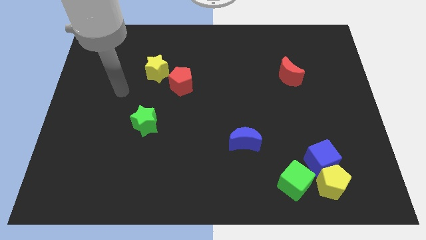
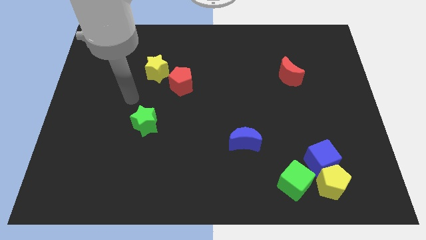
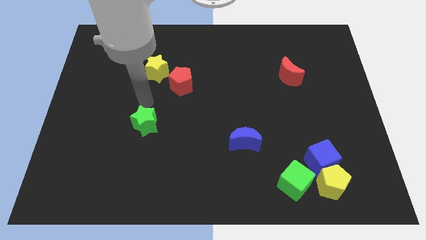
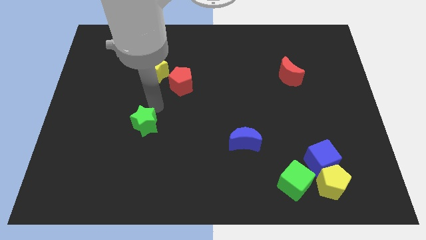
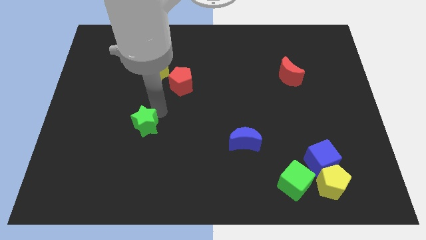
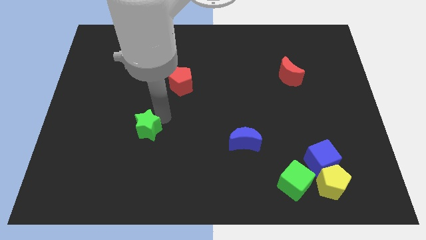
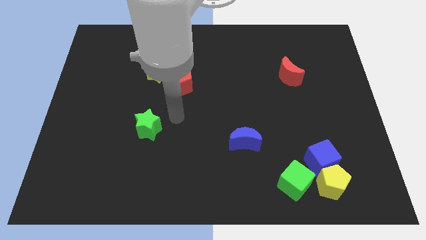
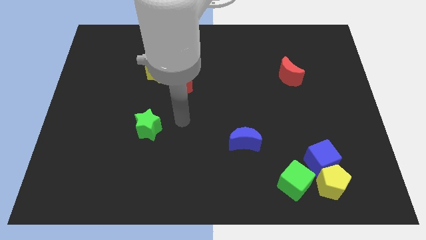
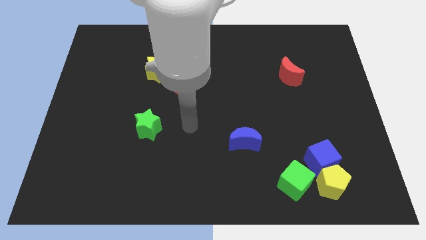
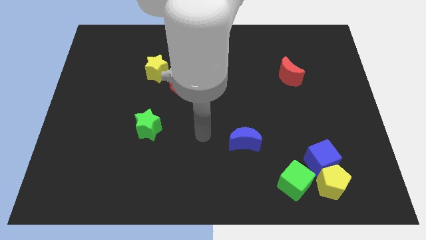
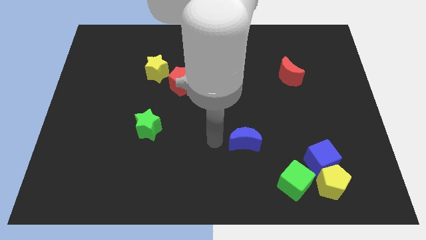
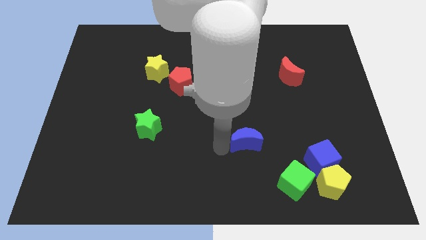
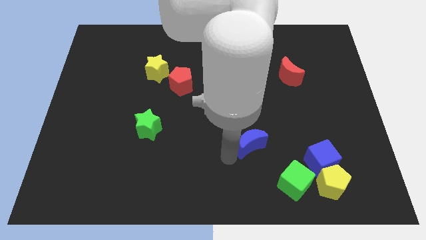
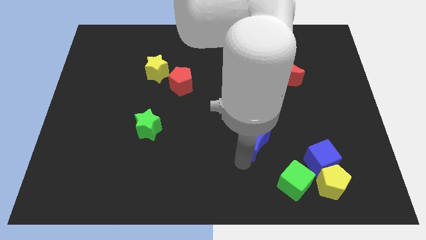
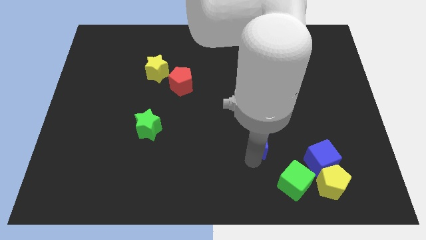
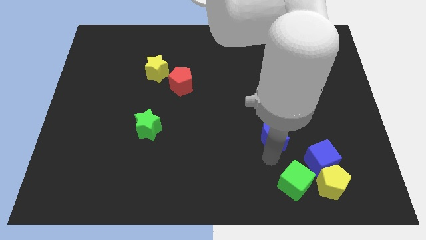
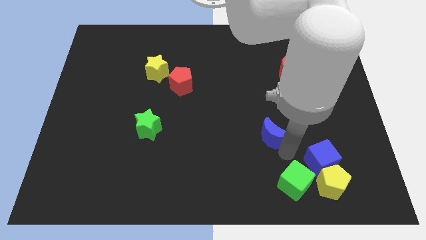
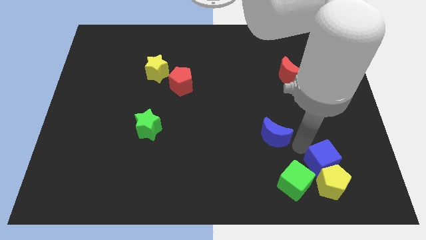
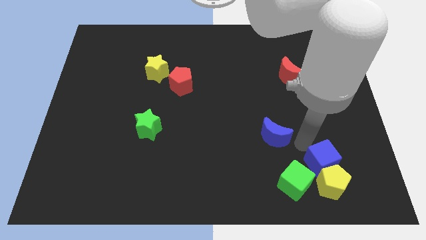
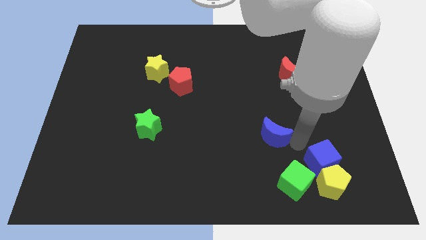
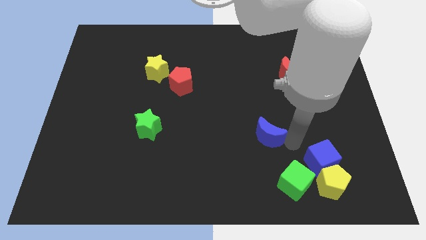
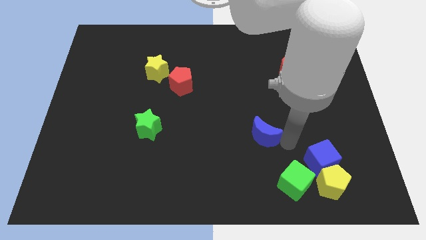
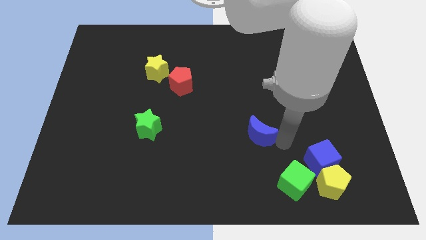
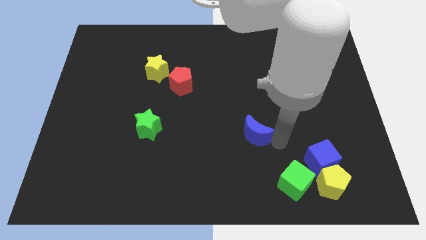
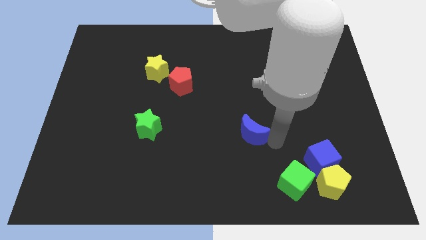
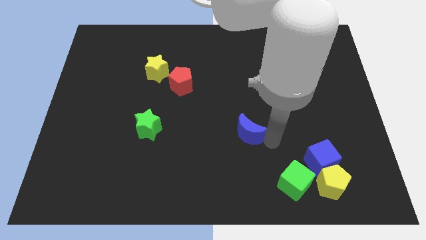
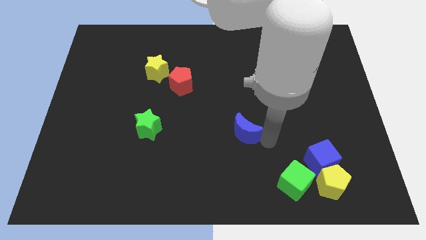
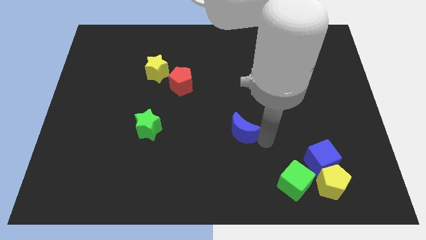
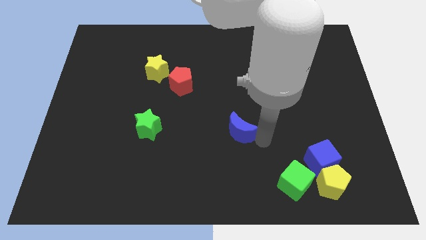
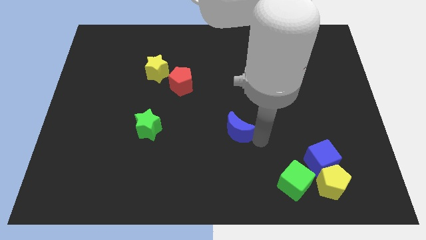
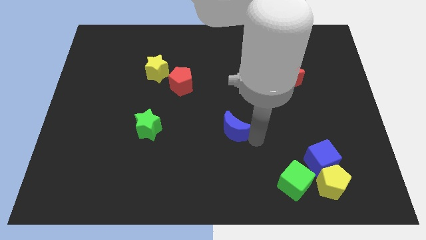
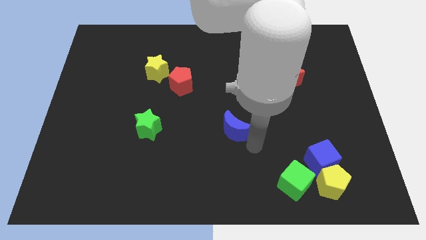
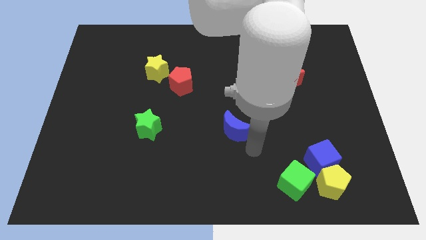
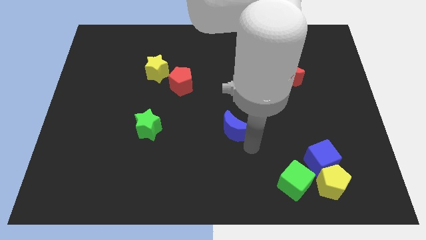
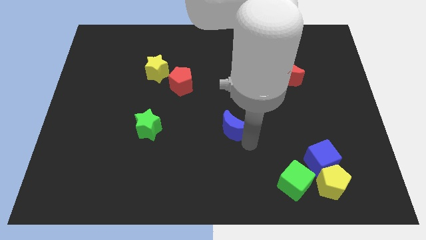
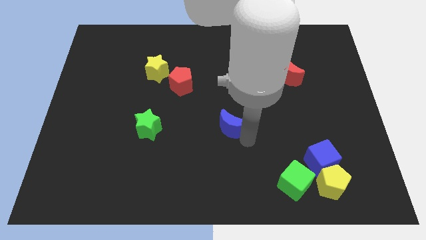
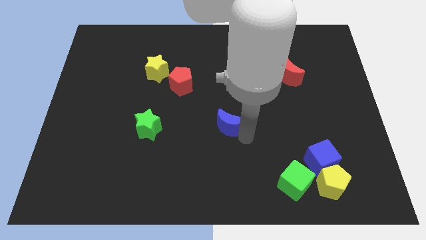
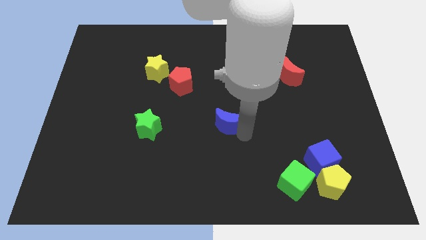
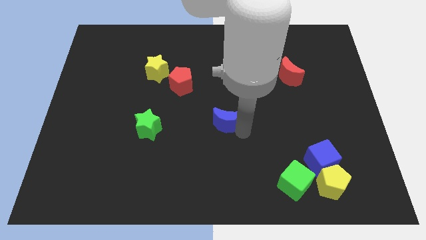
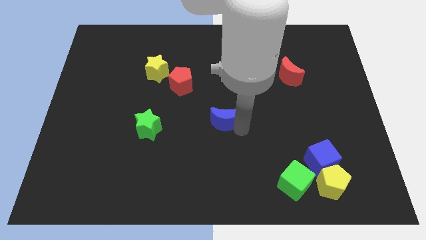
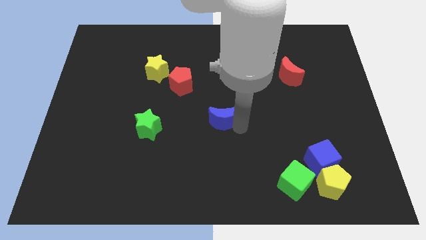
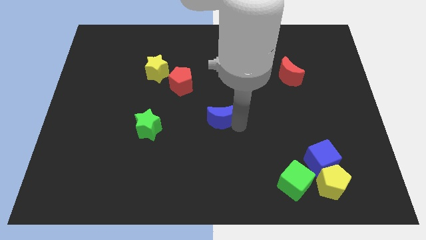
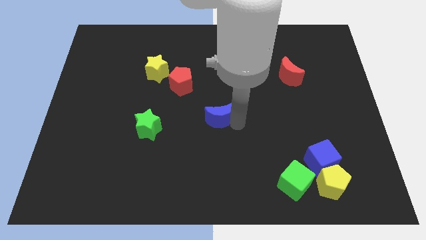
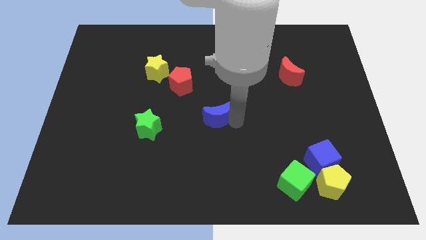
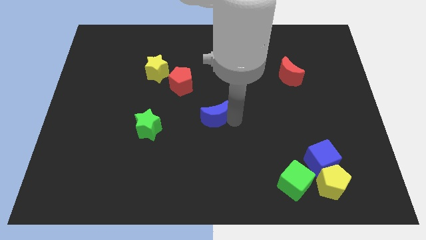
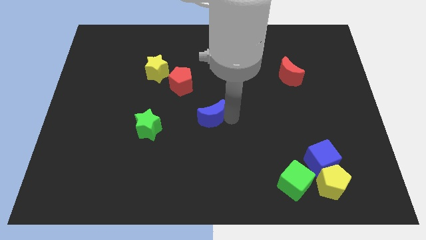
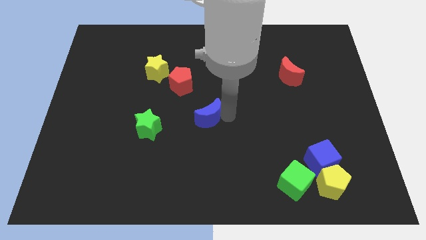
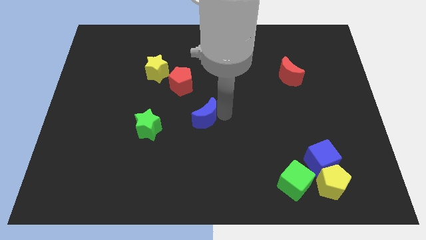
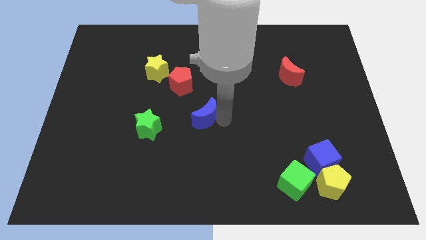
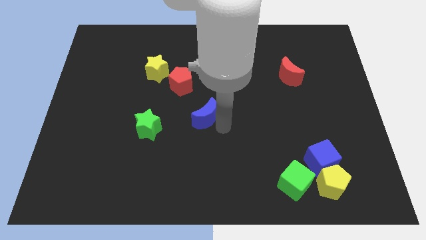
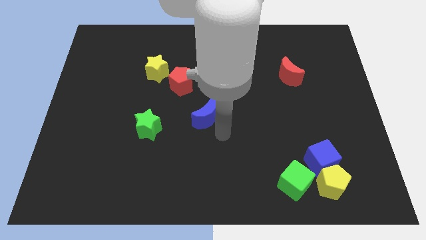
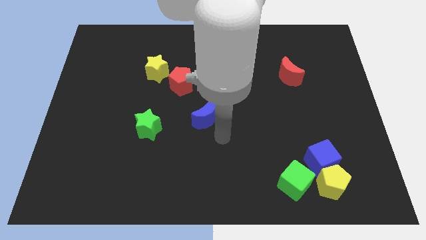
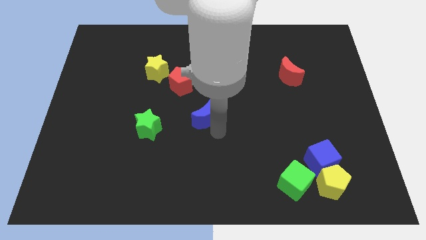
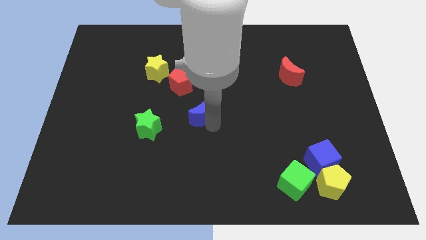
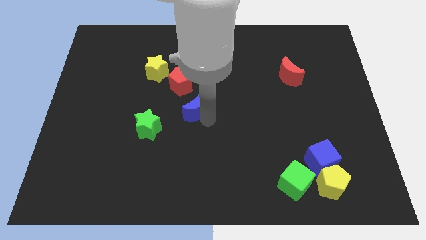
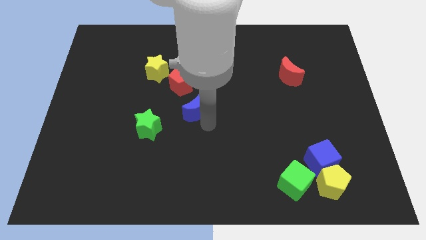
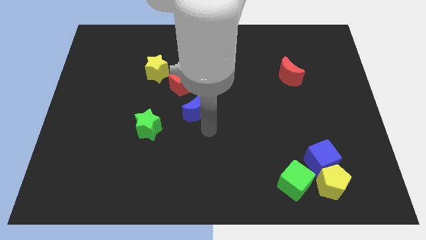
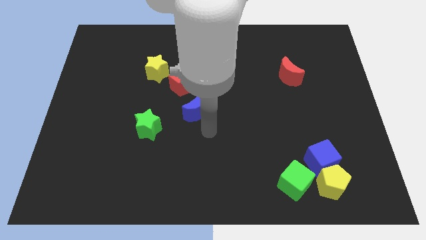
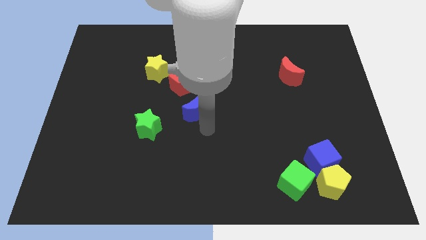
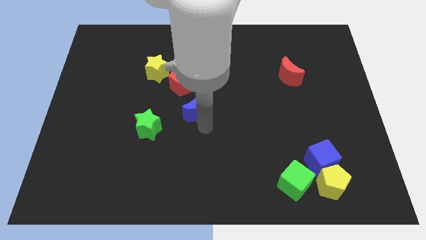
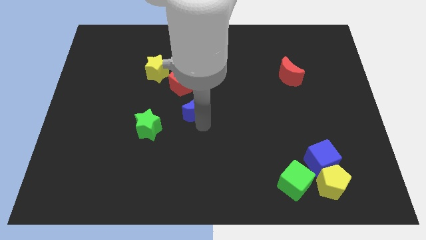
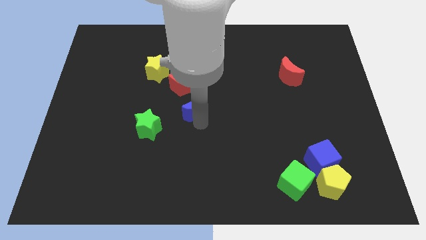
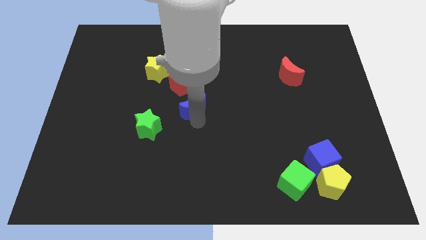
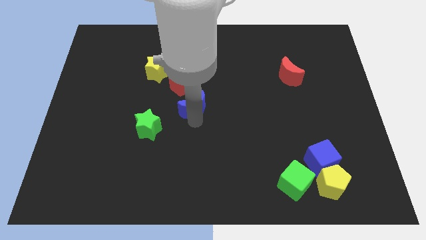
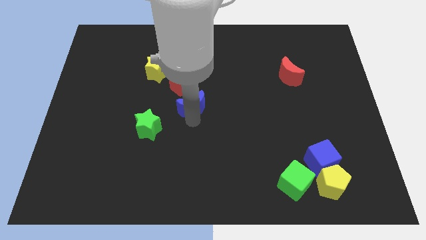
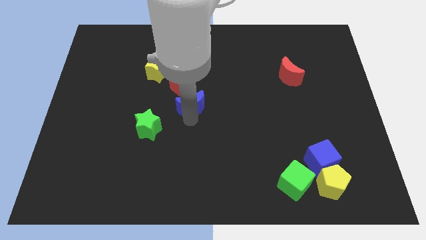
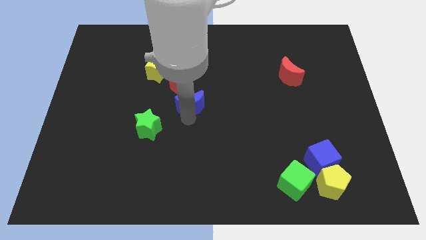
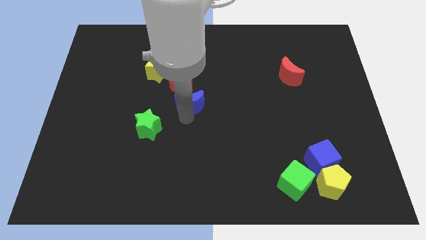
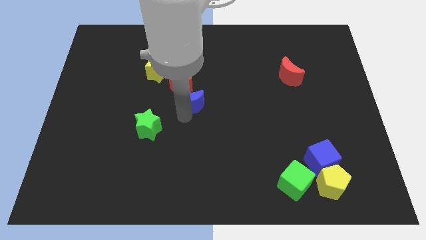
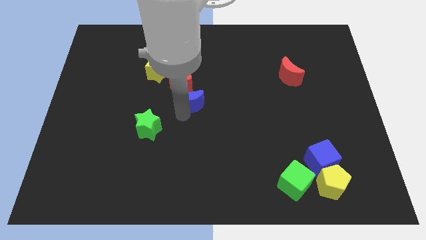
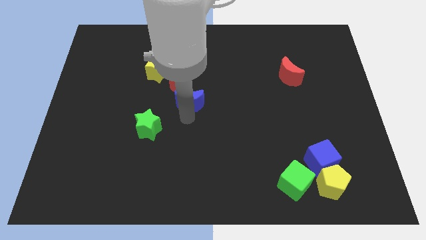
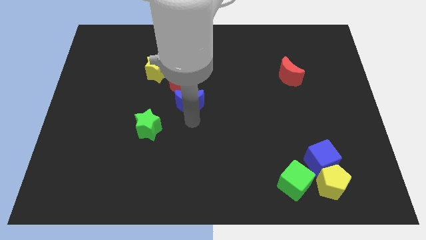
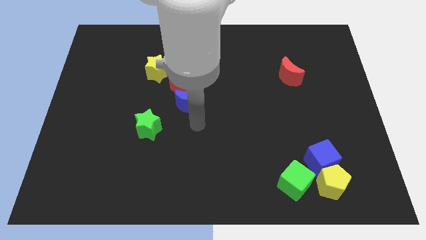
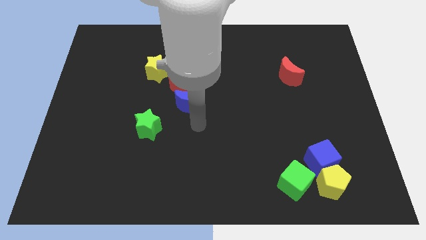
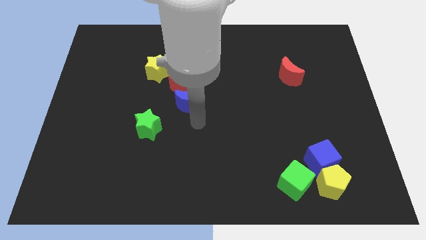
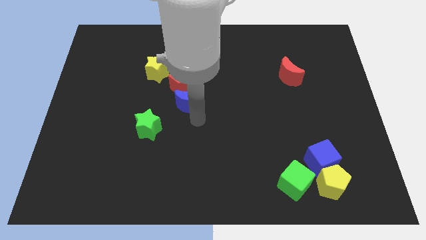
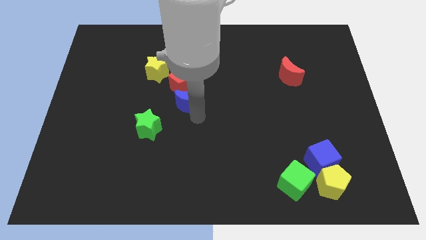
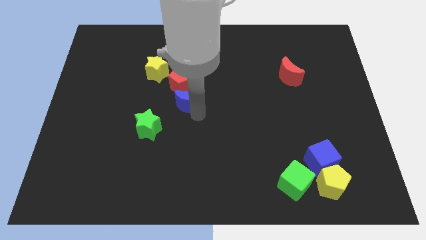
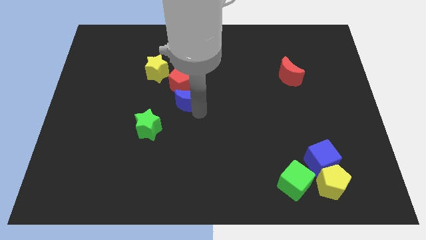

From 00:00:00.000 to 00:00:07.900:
put the blue moon close to the red pentagon
